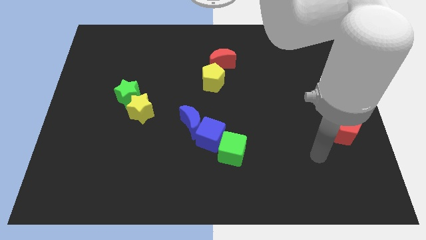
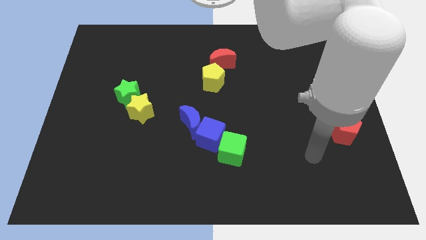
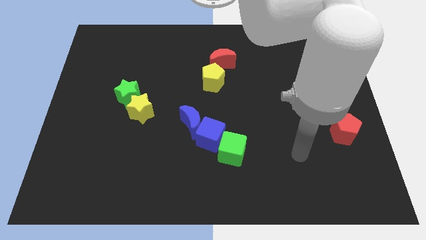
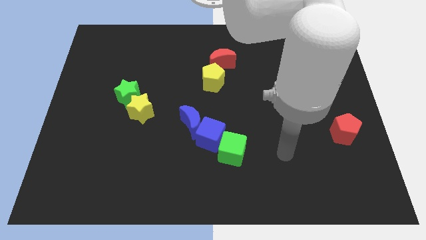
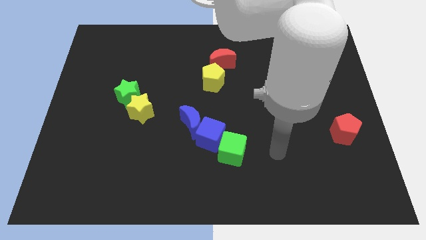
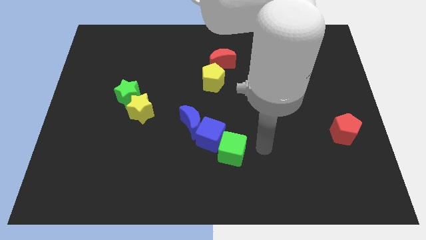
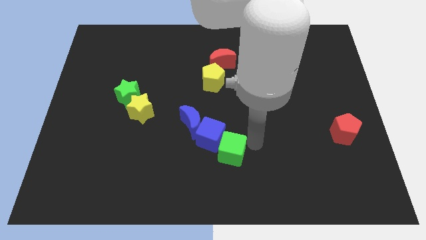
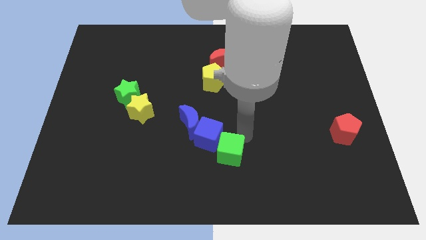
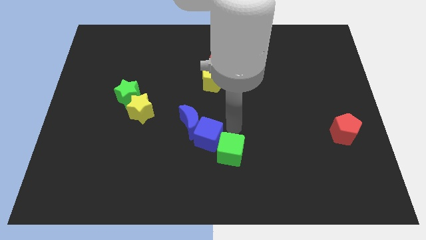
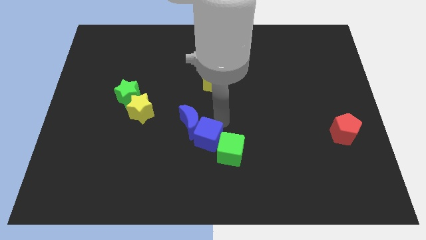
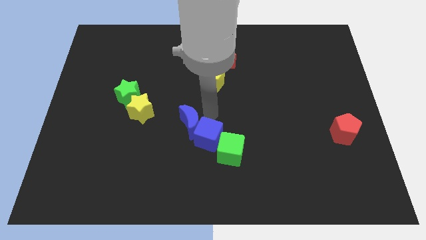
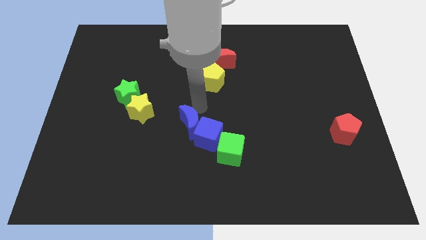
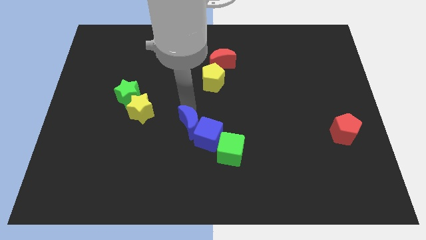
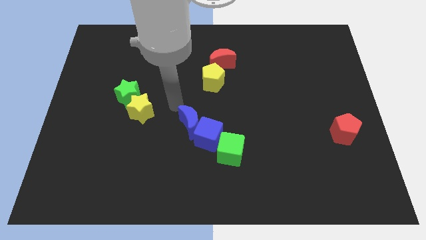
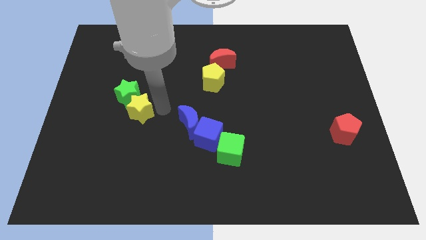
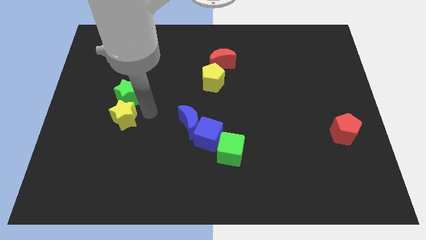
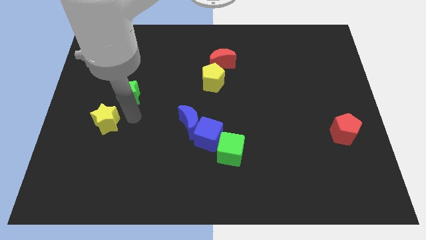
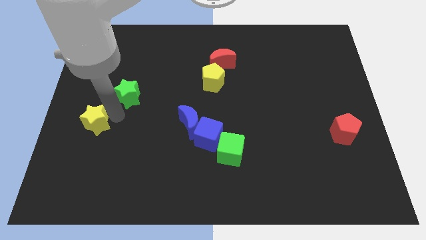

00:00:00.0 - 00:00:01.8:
separate the green star from the yellow star

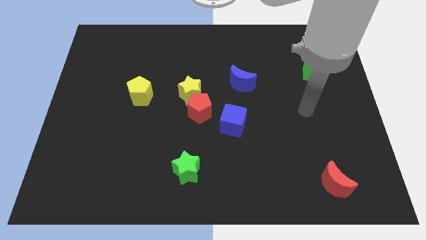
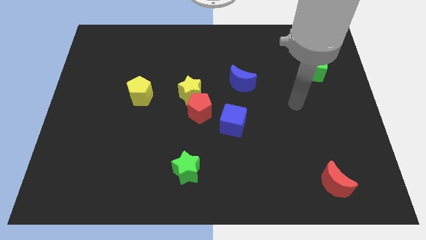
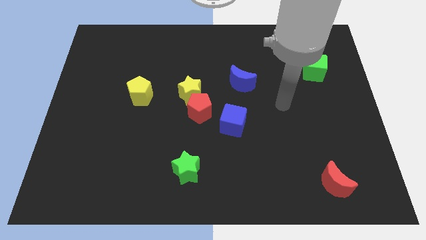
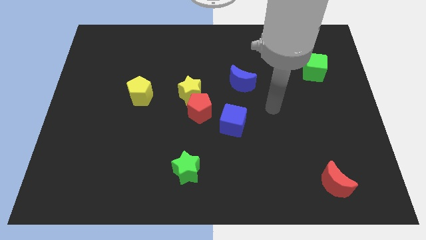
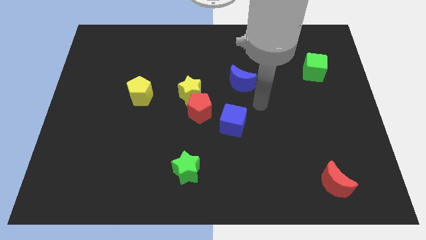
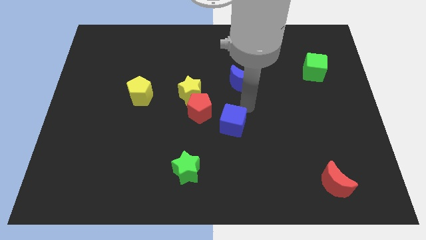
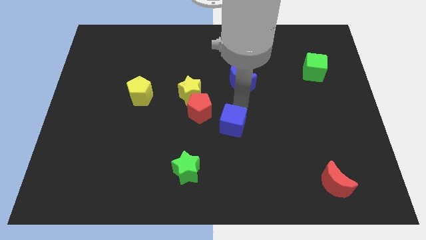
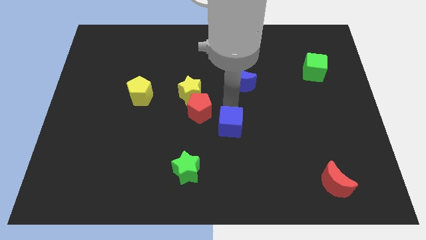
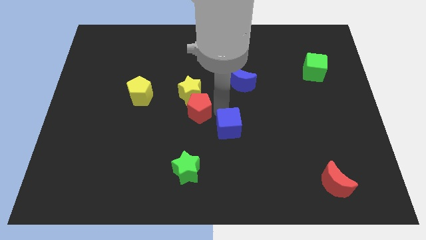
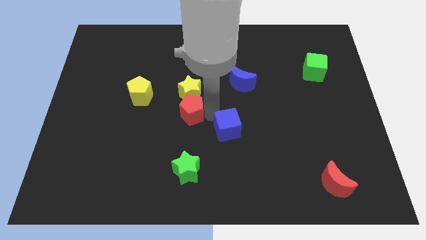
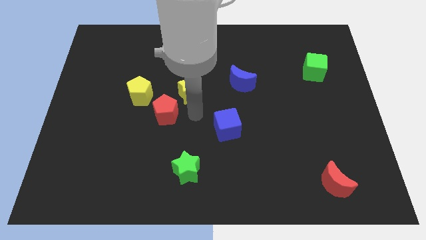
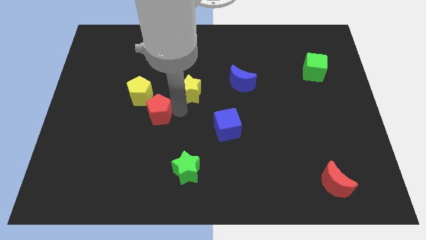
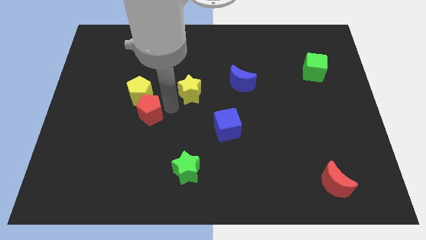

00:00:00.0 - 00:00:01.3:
pull the yellow star apart from the red pentagon

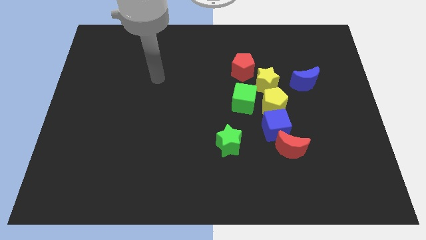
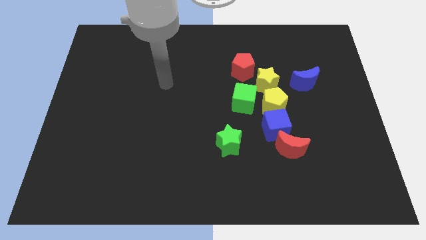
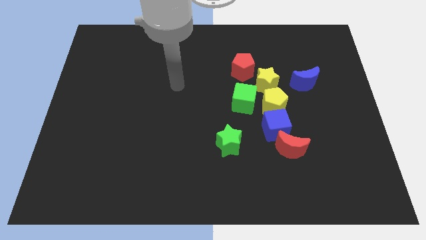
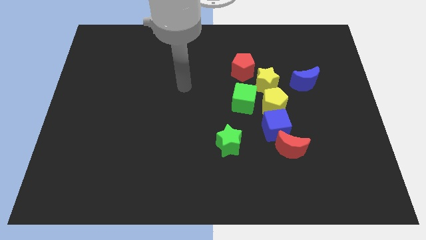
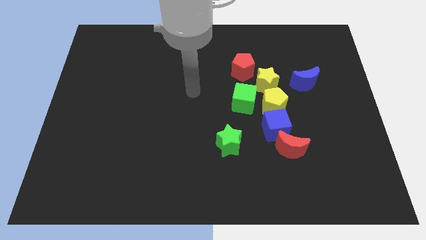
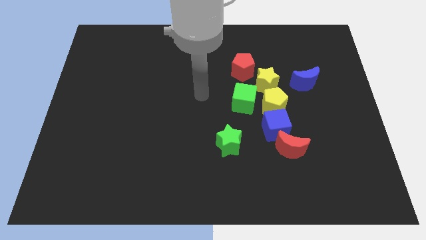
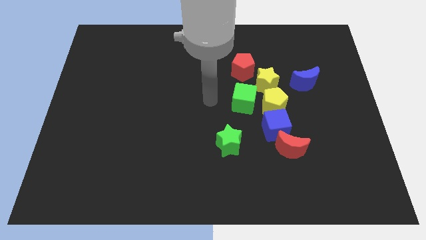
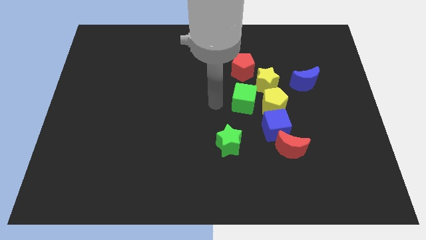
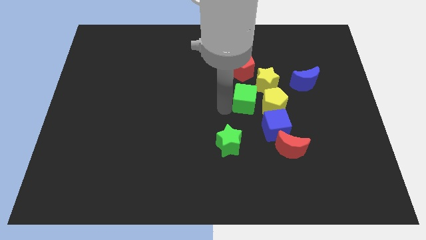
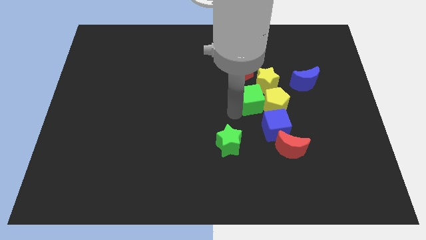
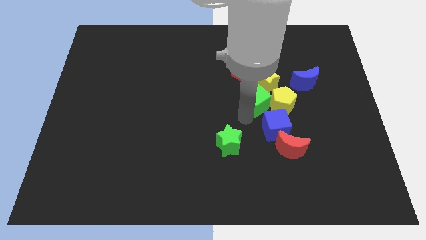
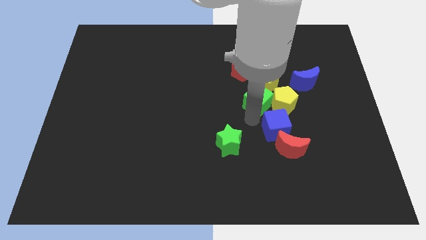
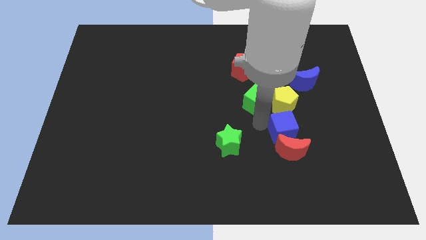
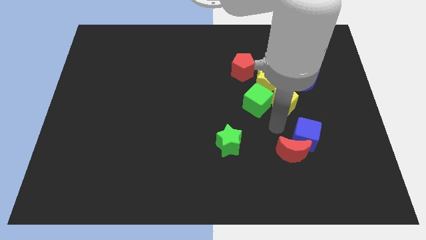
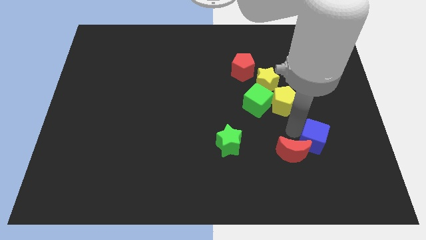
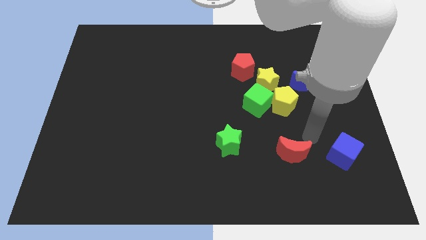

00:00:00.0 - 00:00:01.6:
pull the red moon apart from the blue cube

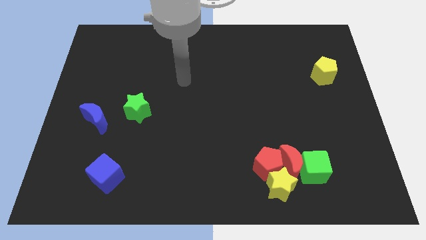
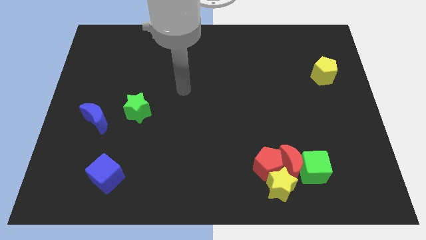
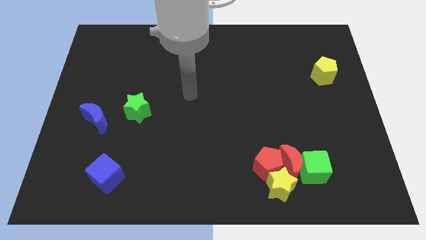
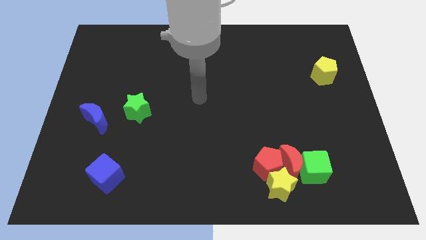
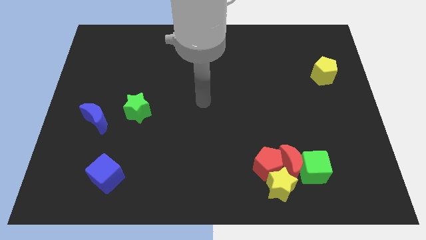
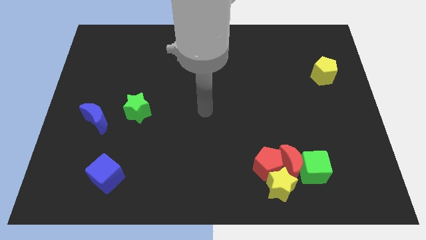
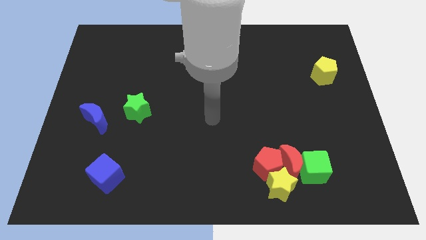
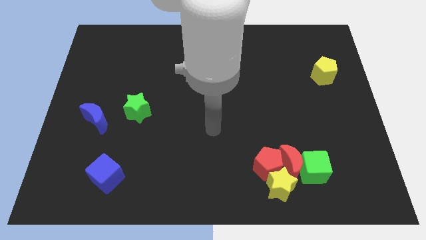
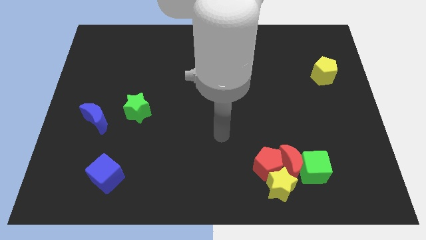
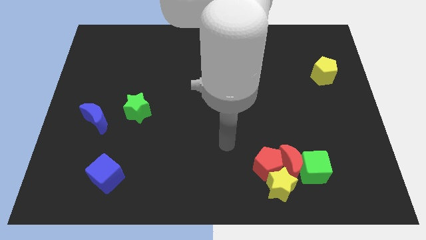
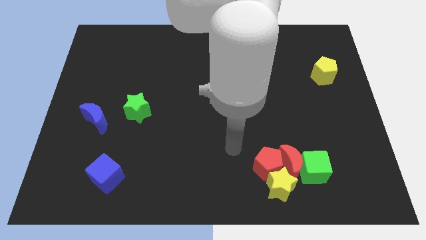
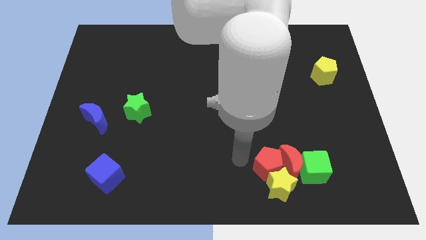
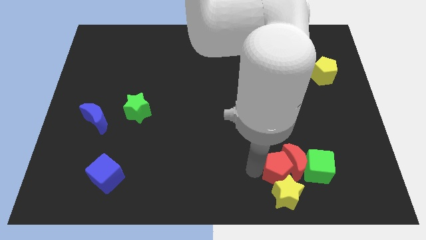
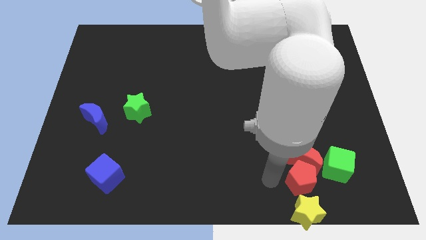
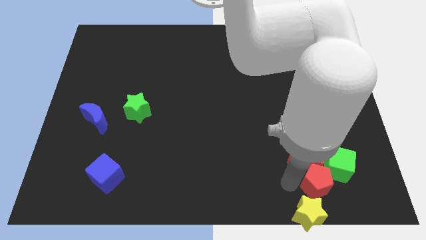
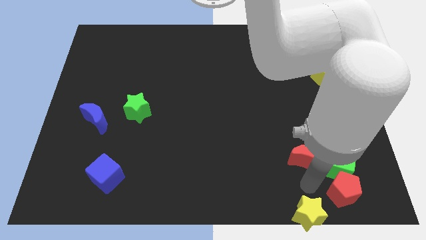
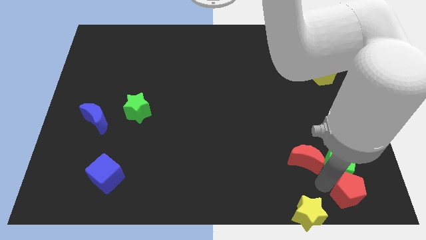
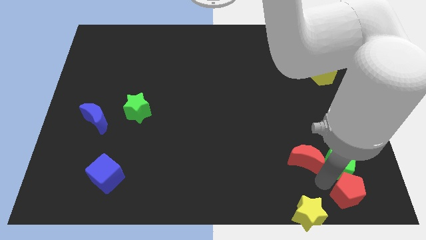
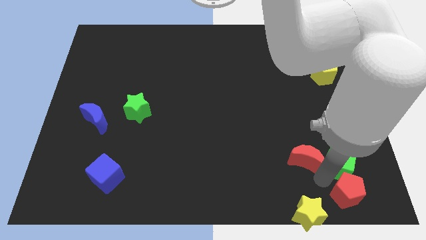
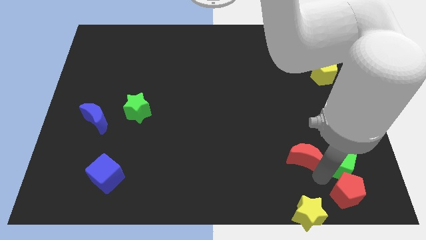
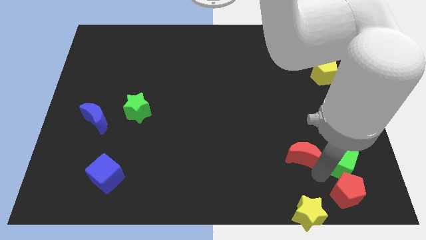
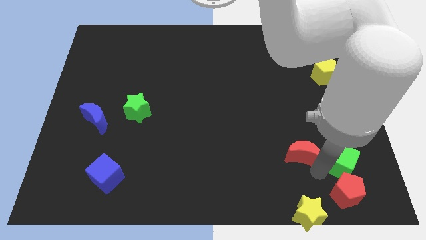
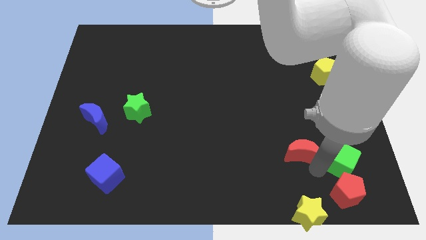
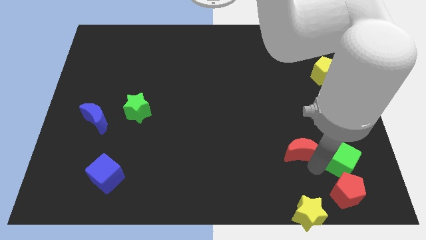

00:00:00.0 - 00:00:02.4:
pull the red moon apart from the group

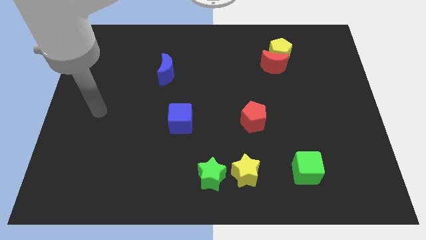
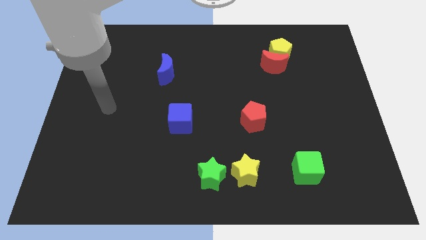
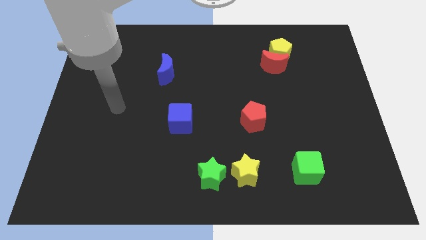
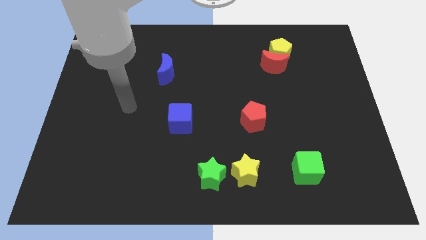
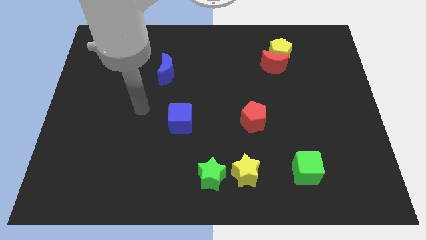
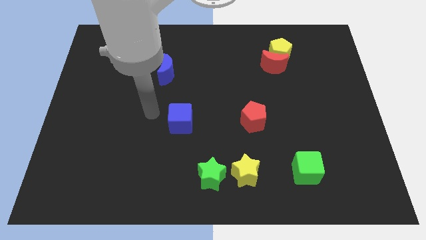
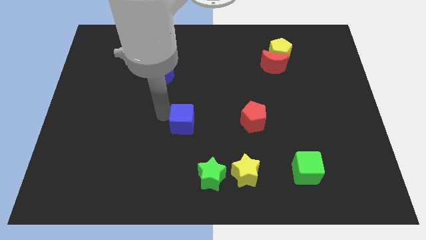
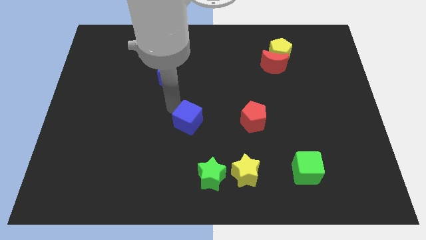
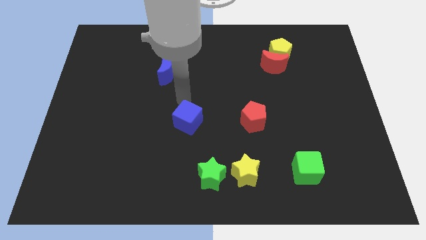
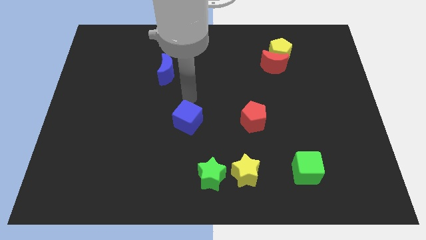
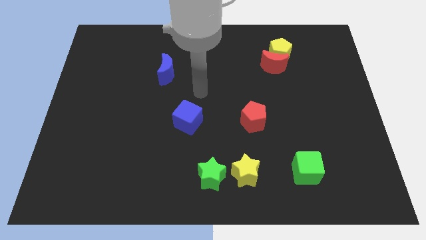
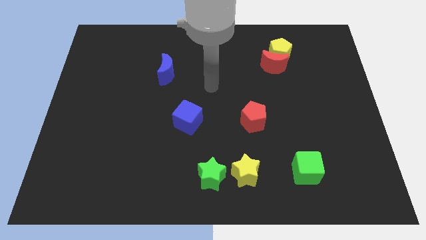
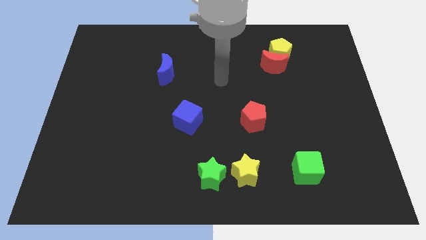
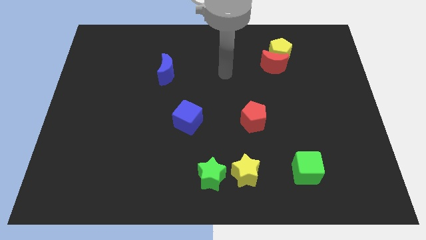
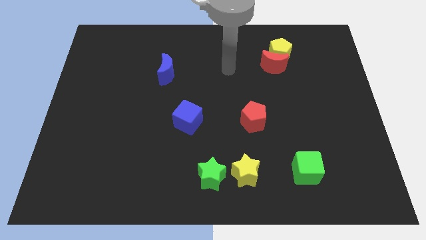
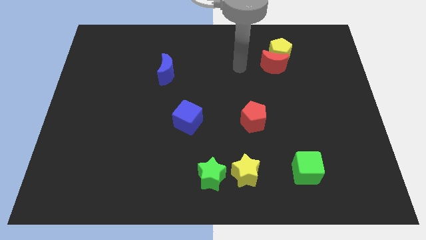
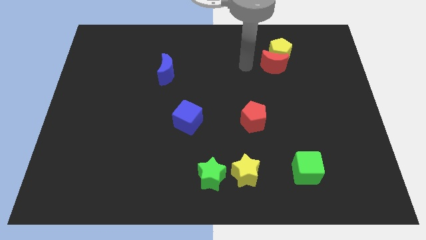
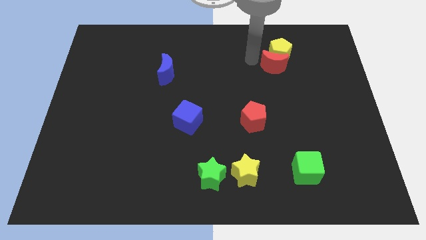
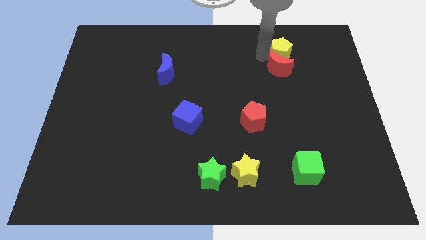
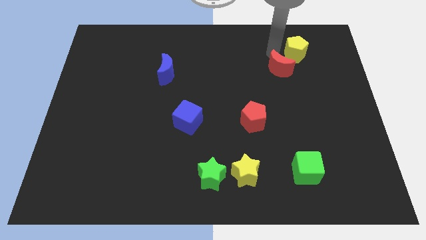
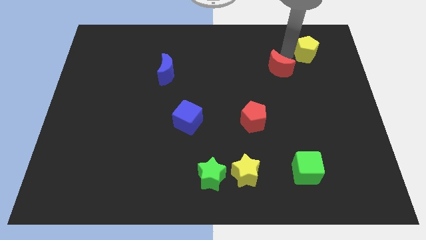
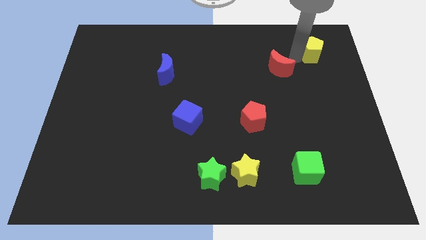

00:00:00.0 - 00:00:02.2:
pull the red moon apart from the yellow pentagon
